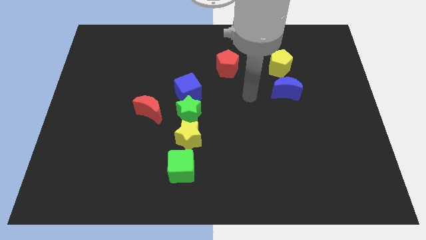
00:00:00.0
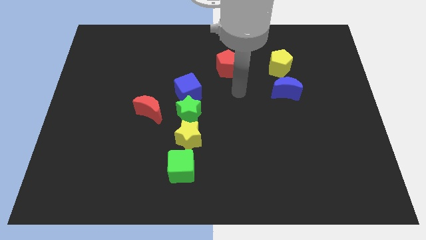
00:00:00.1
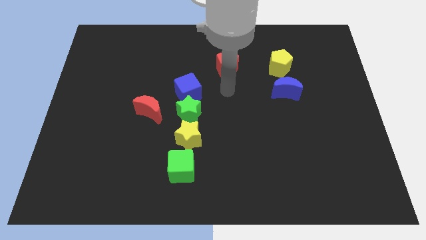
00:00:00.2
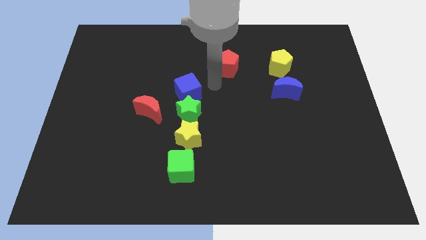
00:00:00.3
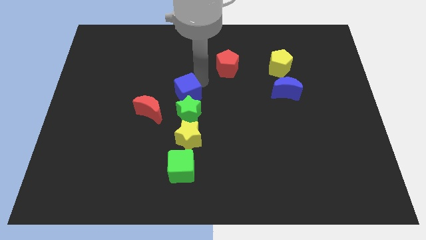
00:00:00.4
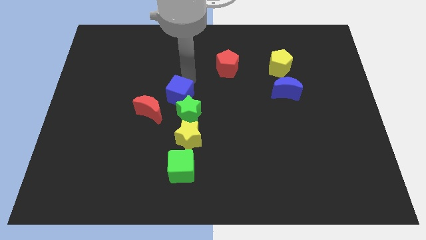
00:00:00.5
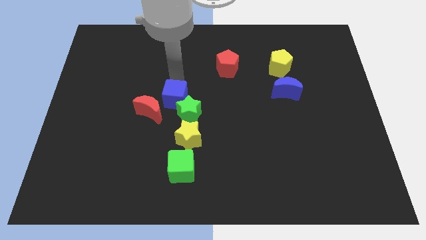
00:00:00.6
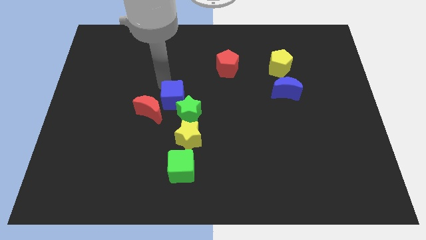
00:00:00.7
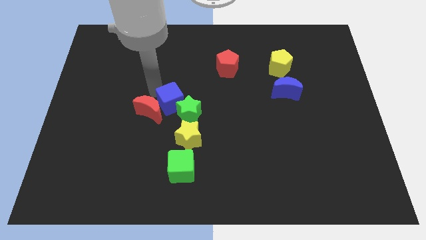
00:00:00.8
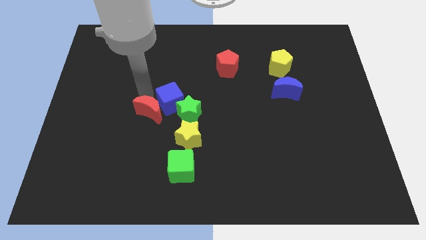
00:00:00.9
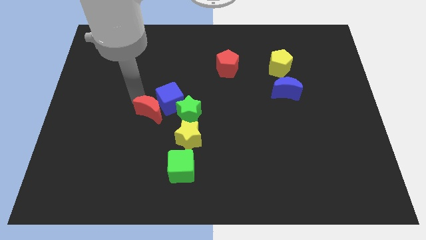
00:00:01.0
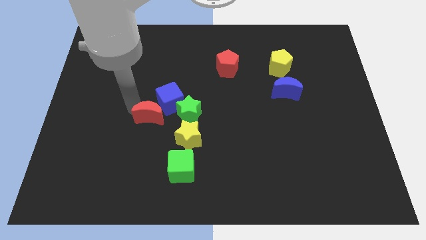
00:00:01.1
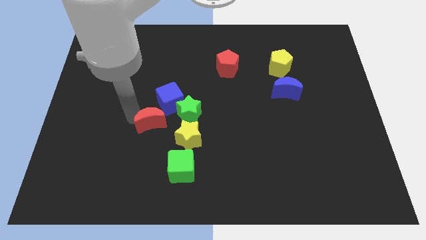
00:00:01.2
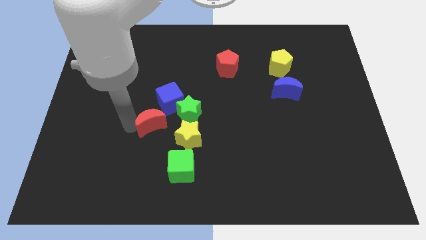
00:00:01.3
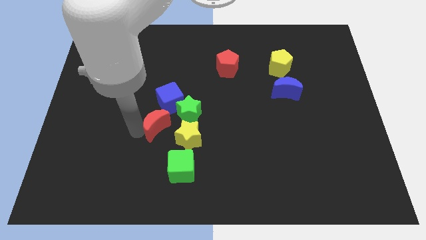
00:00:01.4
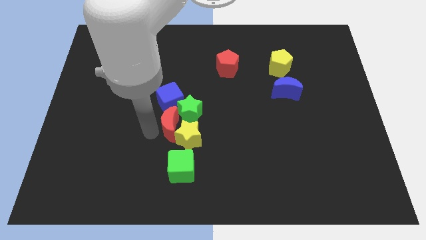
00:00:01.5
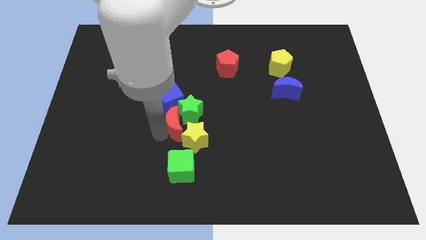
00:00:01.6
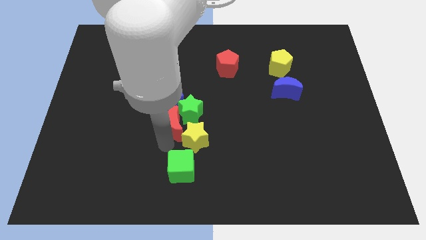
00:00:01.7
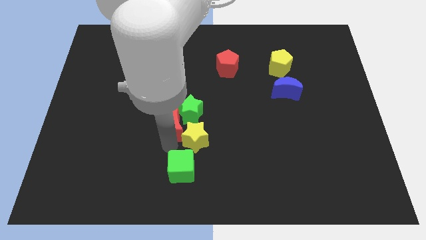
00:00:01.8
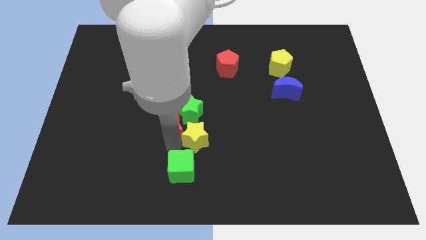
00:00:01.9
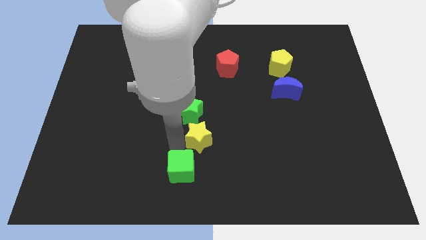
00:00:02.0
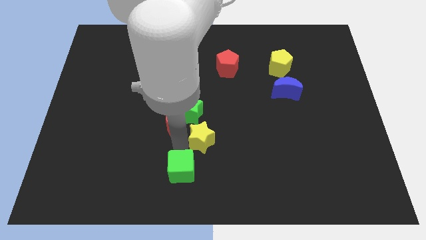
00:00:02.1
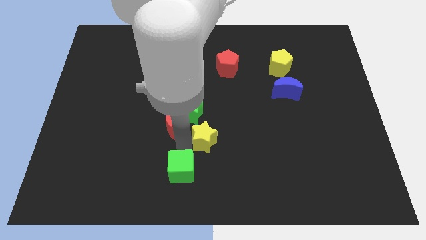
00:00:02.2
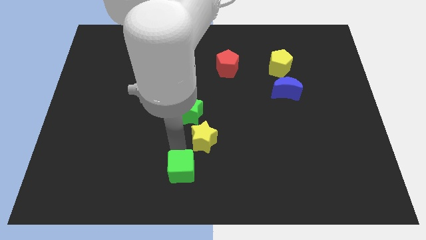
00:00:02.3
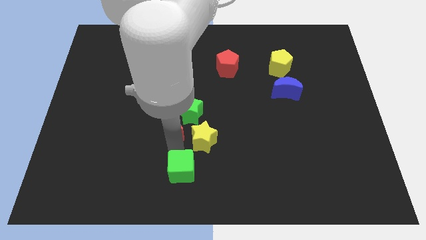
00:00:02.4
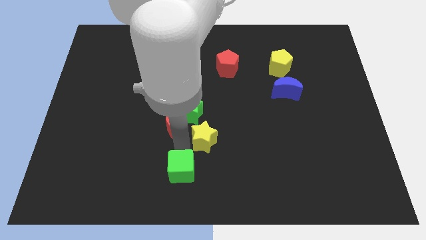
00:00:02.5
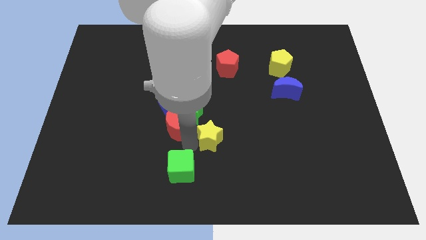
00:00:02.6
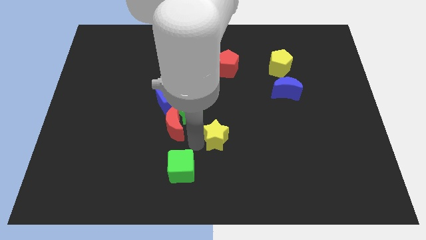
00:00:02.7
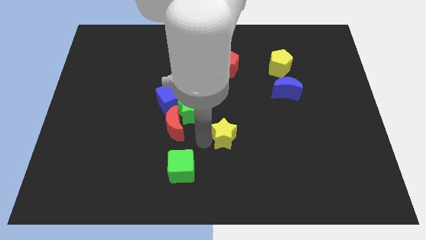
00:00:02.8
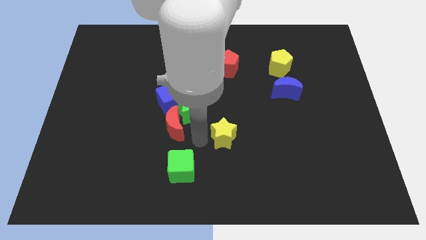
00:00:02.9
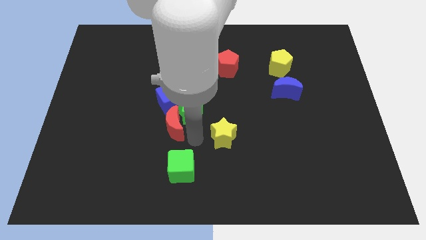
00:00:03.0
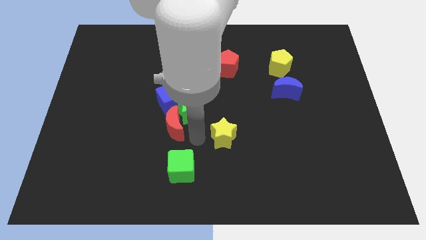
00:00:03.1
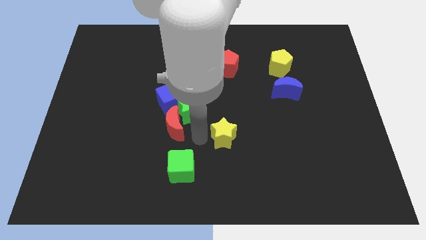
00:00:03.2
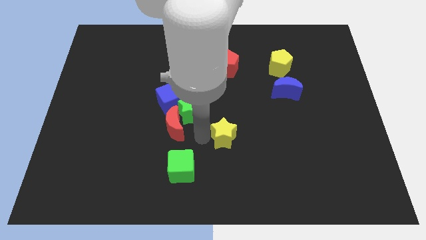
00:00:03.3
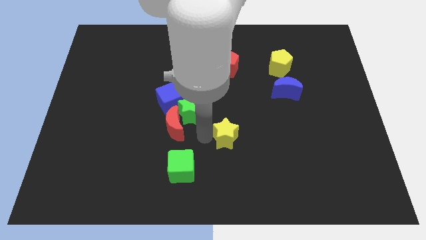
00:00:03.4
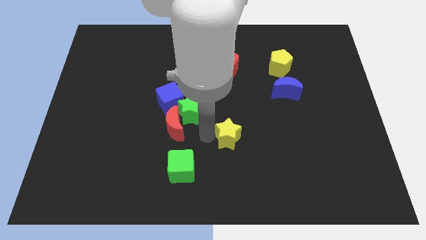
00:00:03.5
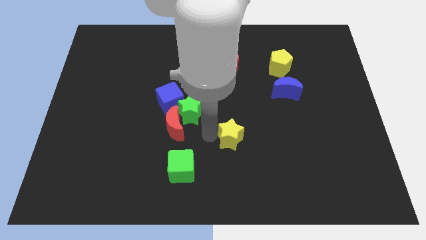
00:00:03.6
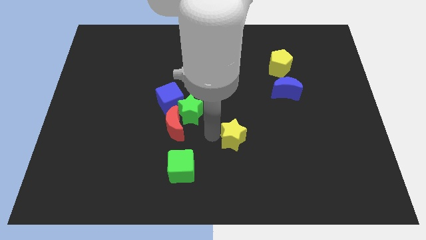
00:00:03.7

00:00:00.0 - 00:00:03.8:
move the yellow star away from the green star and green cube

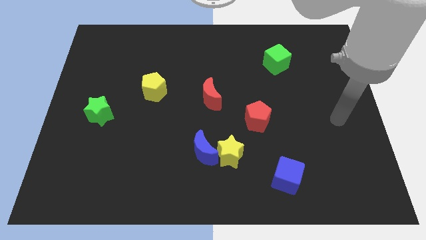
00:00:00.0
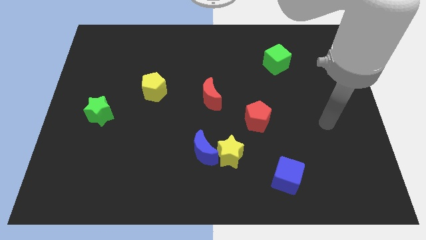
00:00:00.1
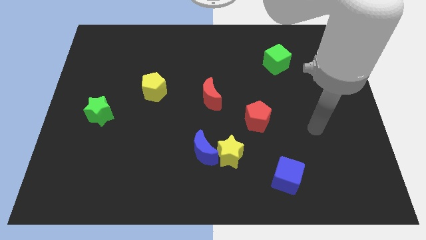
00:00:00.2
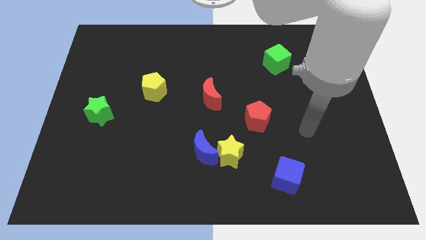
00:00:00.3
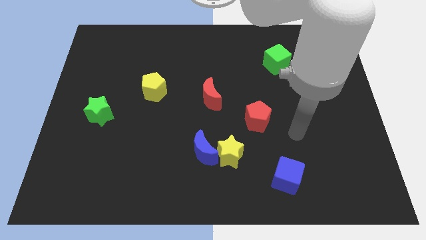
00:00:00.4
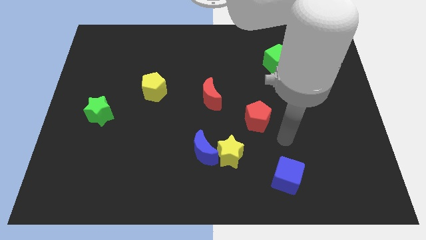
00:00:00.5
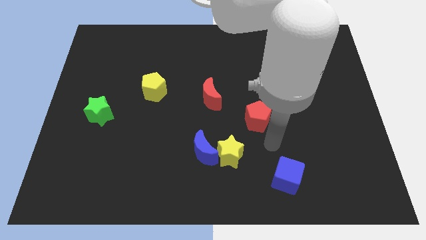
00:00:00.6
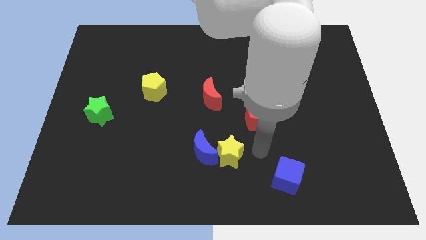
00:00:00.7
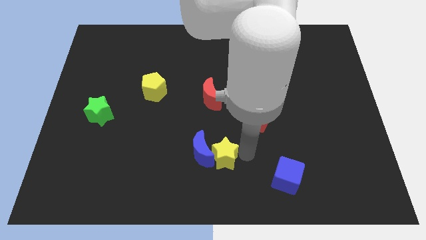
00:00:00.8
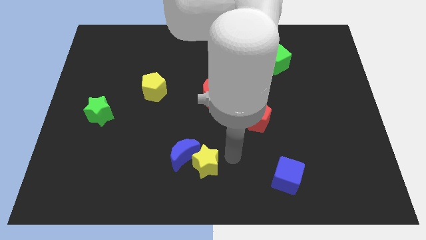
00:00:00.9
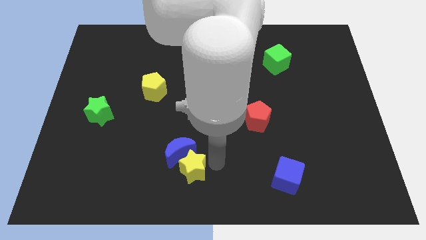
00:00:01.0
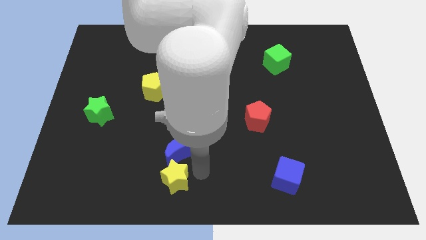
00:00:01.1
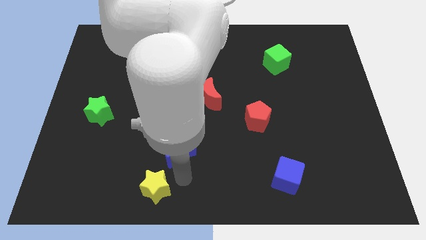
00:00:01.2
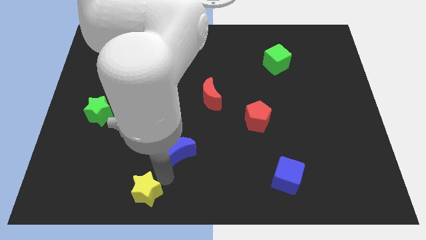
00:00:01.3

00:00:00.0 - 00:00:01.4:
move the blue moon away from the yellow star

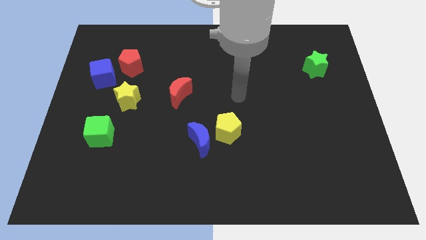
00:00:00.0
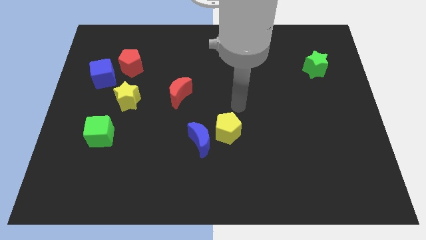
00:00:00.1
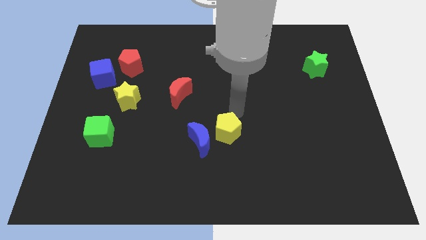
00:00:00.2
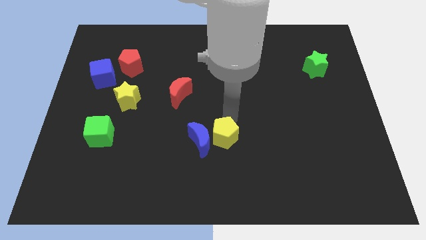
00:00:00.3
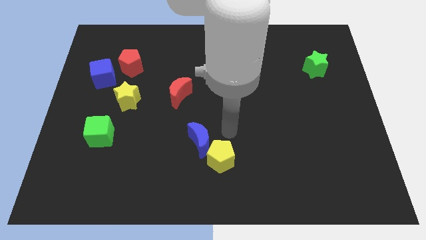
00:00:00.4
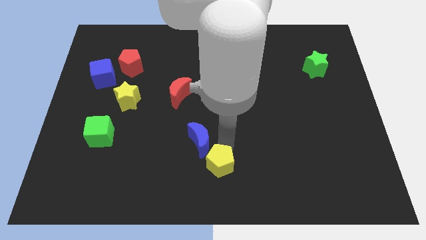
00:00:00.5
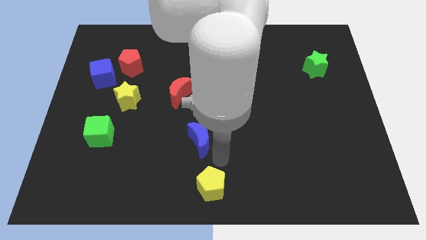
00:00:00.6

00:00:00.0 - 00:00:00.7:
move the blue moon away from the yellow pentagon

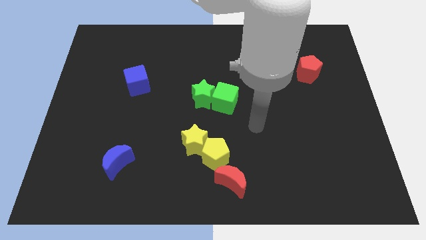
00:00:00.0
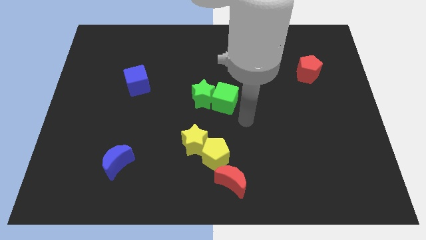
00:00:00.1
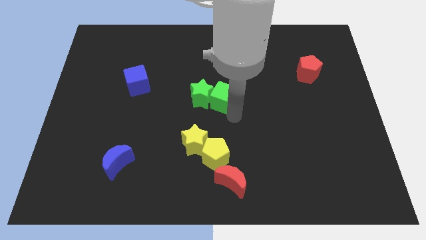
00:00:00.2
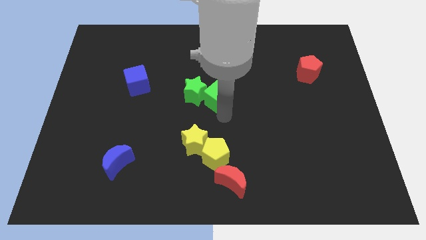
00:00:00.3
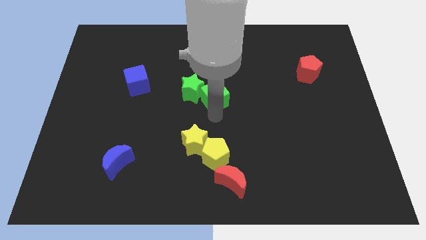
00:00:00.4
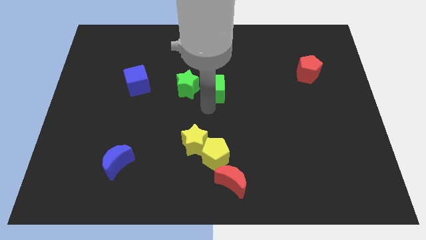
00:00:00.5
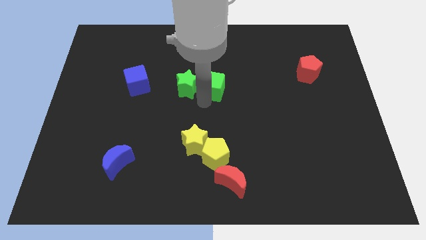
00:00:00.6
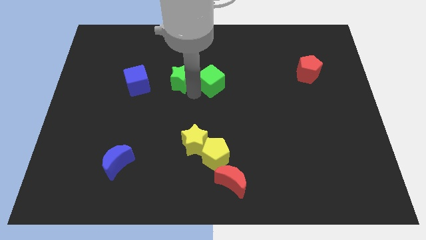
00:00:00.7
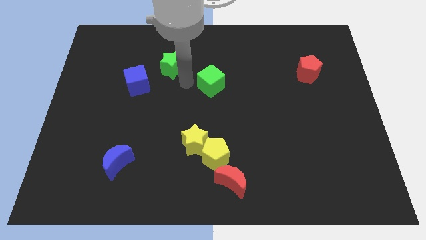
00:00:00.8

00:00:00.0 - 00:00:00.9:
move the green cube away from the green star

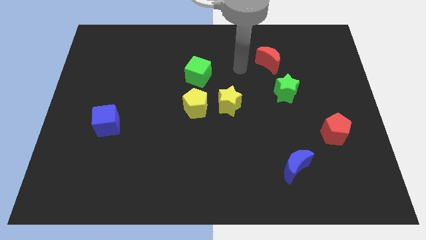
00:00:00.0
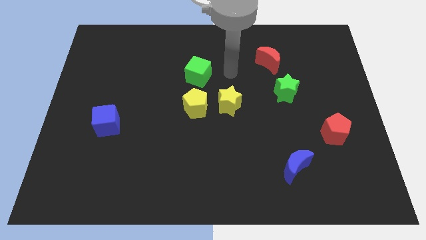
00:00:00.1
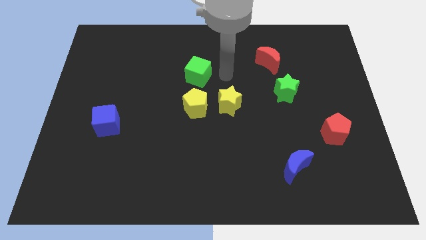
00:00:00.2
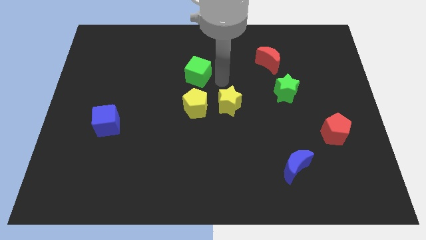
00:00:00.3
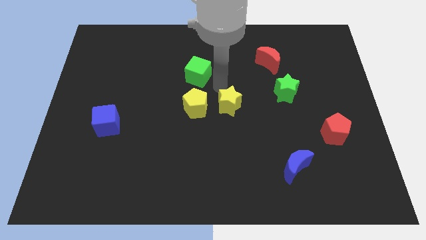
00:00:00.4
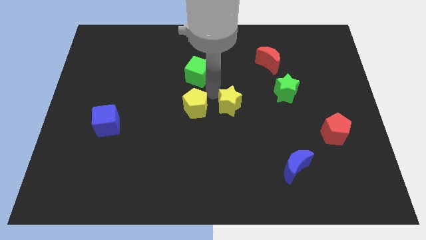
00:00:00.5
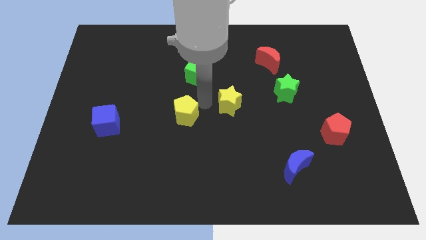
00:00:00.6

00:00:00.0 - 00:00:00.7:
separate the yellow star from the yellow pentagon

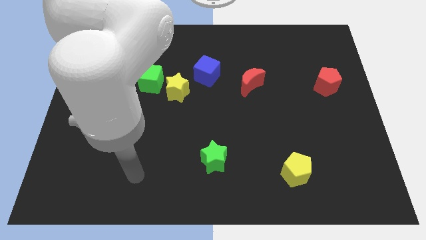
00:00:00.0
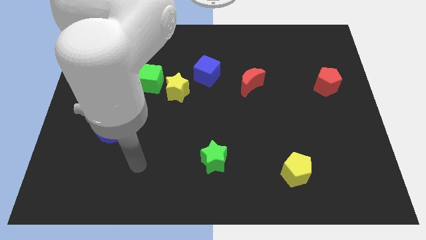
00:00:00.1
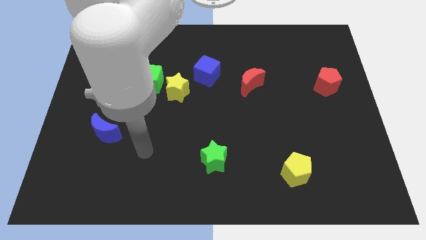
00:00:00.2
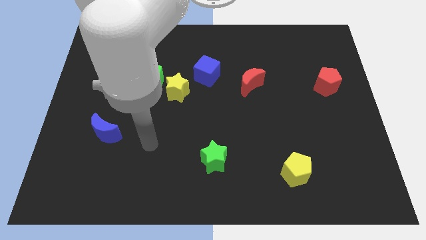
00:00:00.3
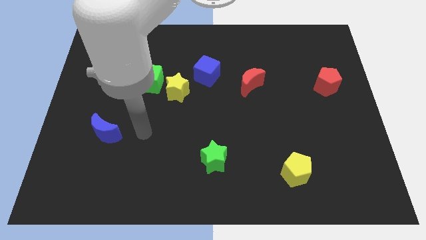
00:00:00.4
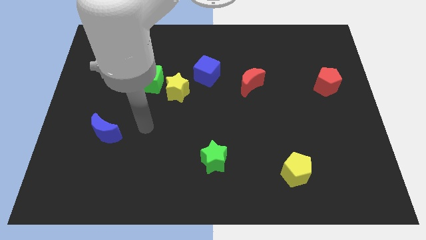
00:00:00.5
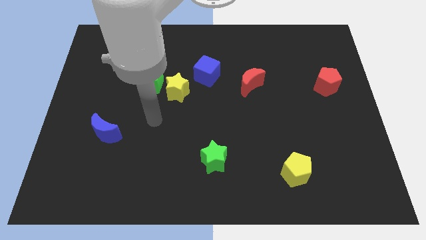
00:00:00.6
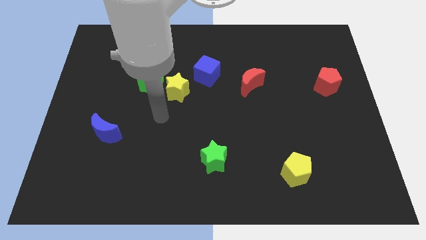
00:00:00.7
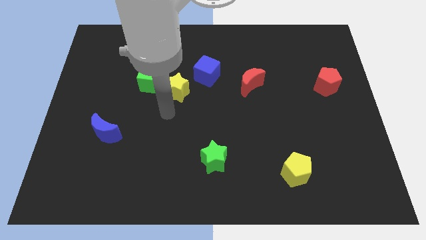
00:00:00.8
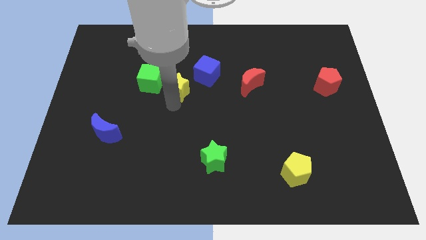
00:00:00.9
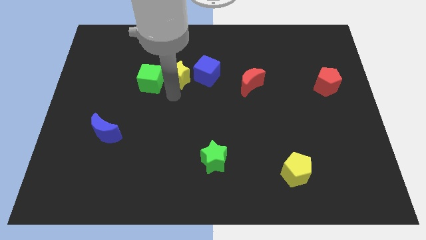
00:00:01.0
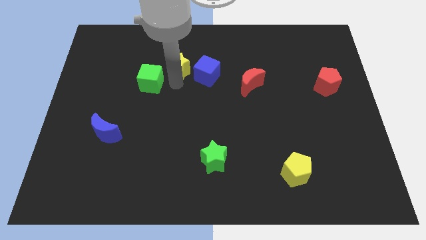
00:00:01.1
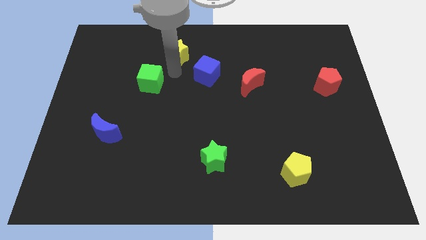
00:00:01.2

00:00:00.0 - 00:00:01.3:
move the green cube away from the yellow star

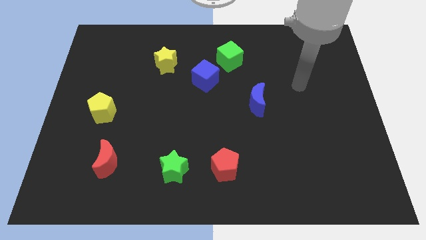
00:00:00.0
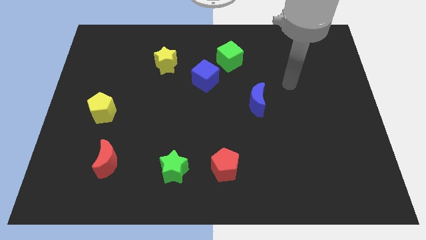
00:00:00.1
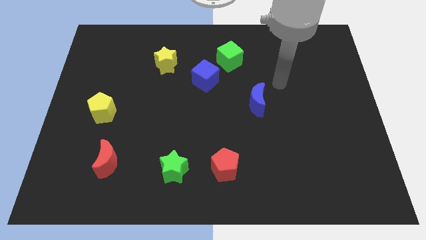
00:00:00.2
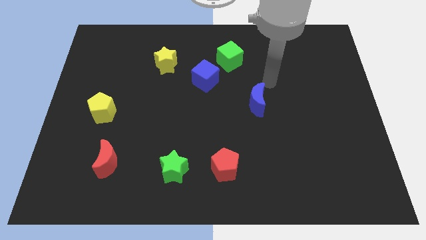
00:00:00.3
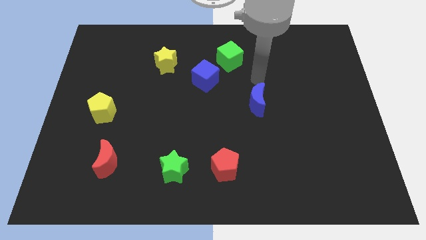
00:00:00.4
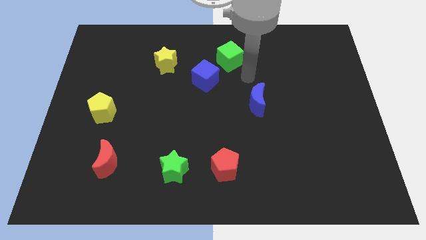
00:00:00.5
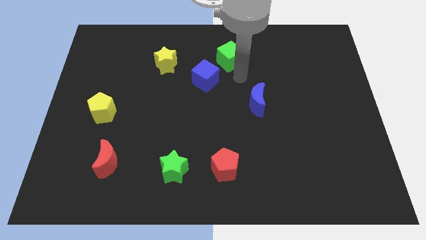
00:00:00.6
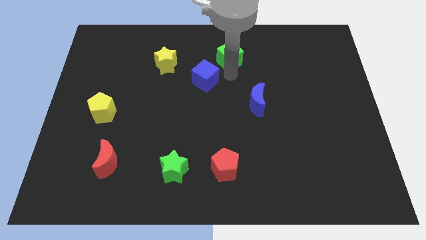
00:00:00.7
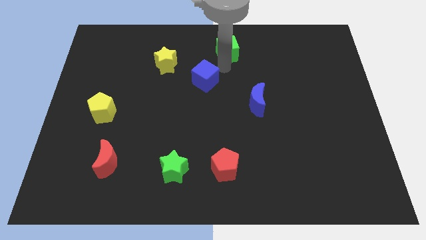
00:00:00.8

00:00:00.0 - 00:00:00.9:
pull the blue cube apart from the green cube
